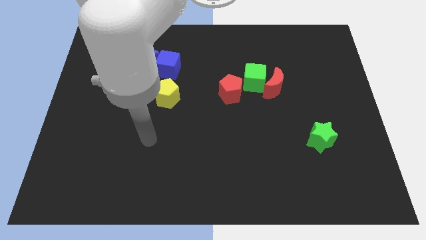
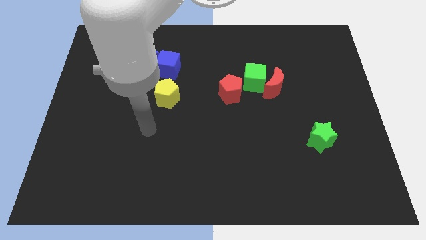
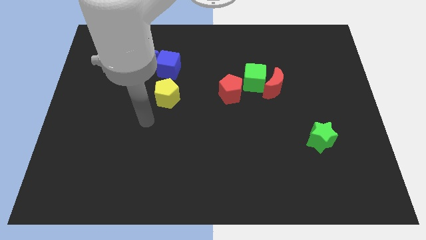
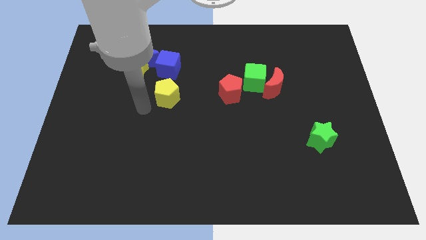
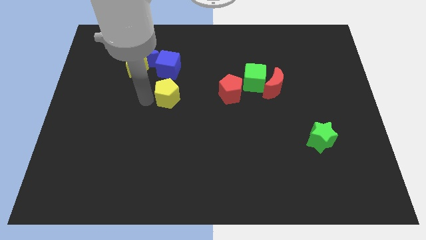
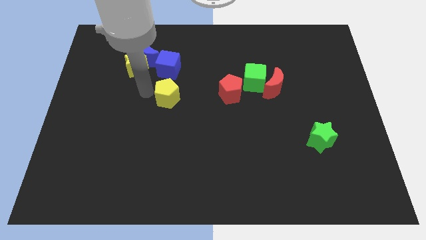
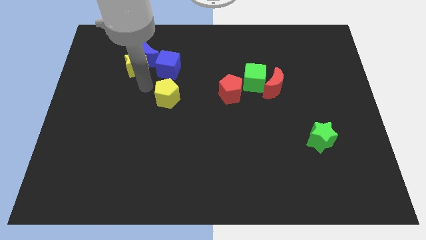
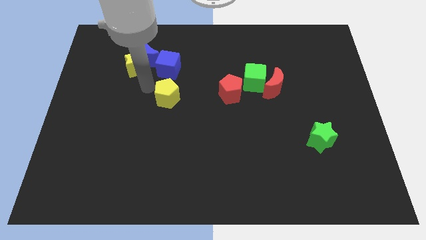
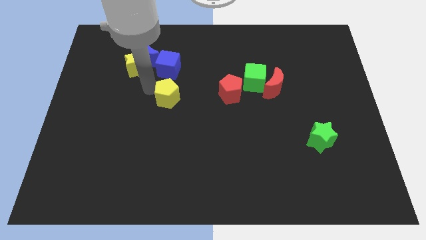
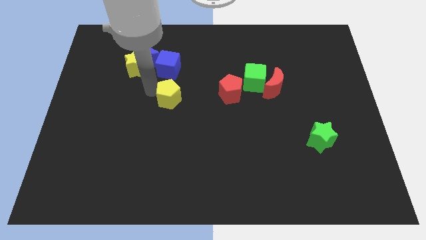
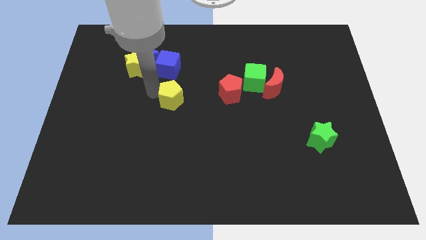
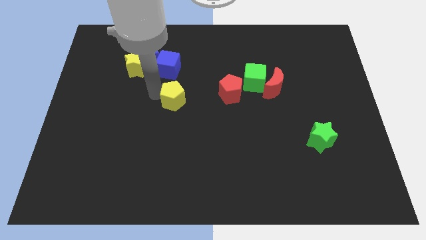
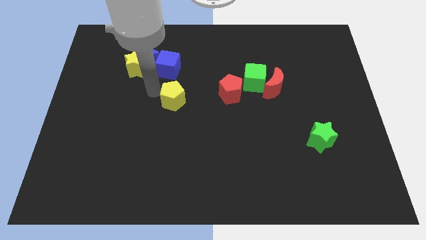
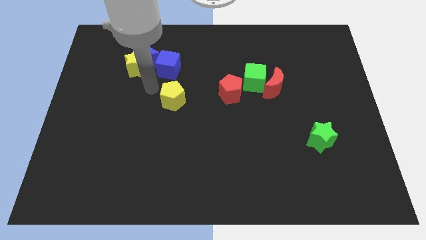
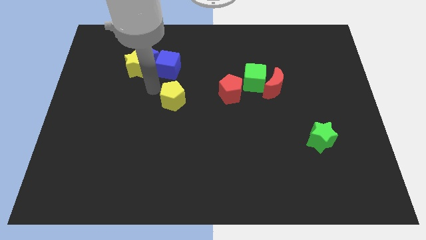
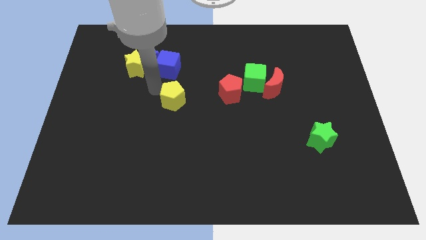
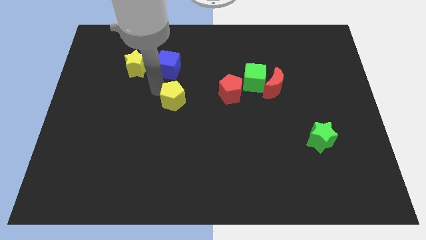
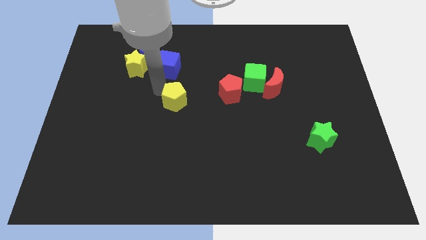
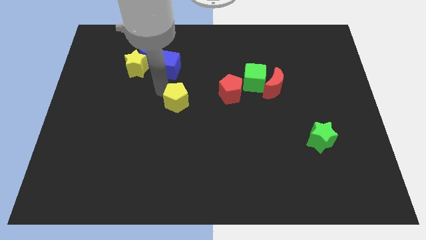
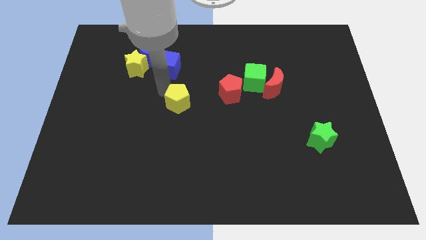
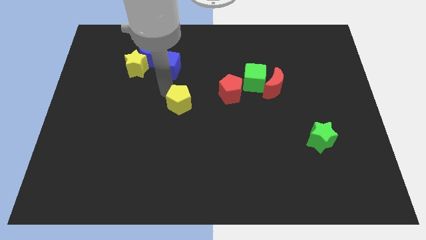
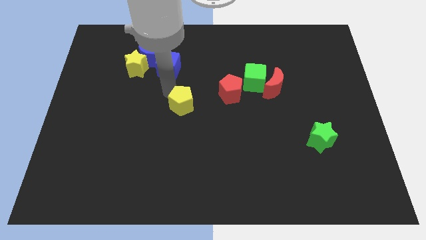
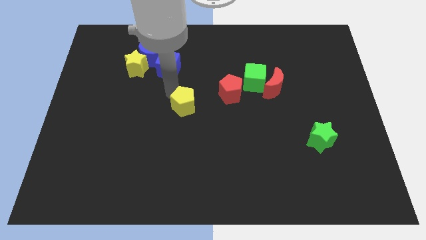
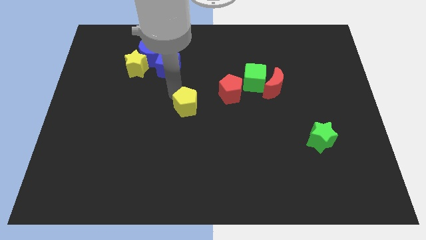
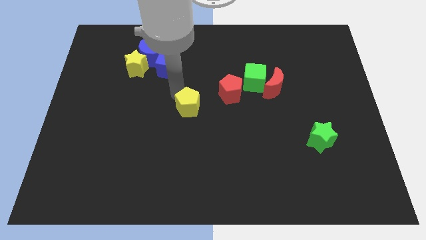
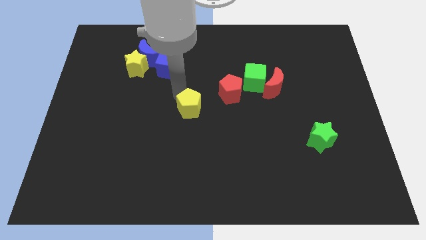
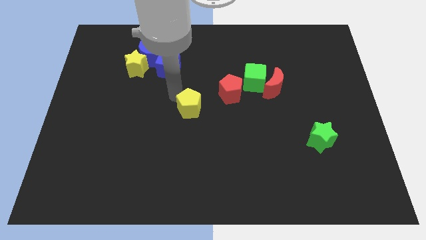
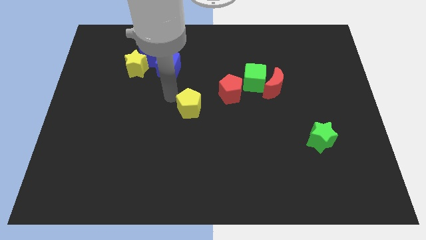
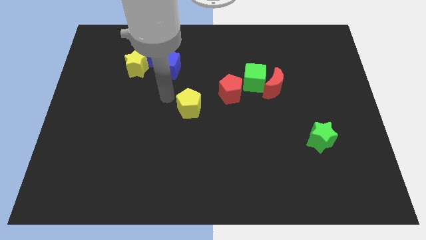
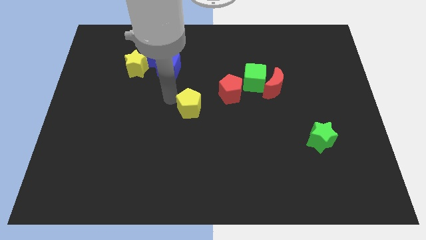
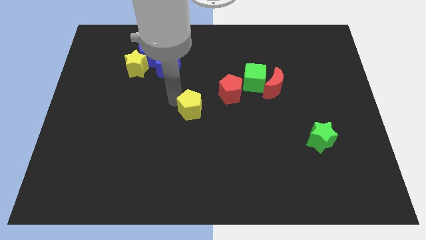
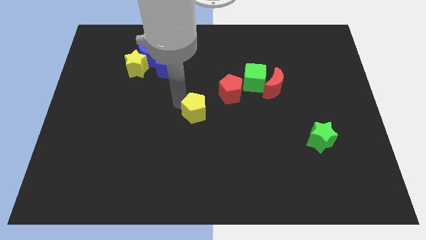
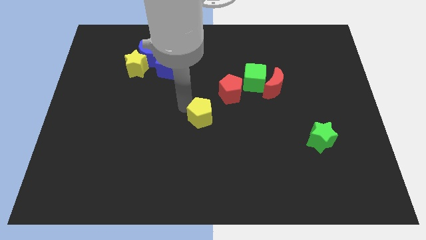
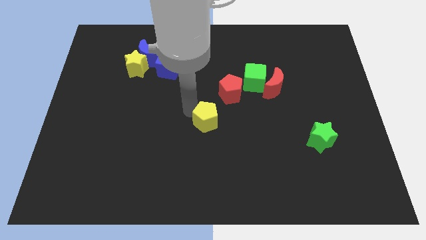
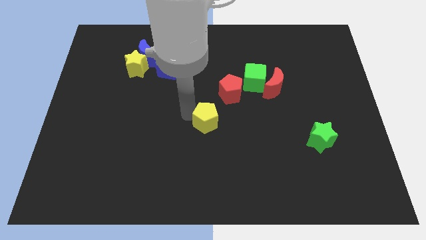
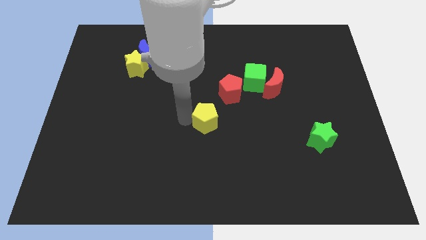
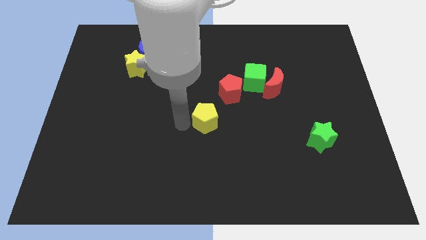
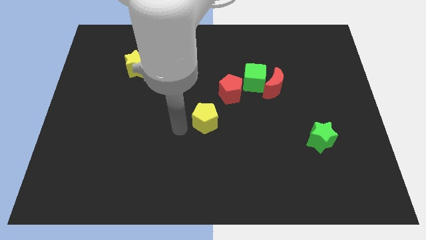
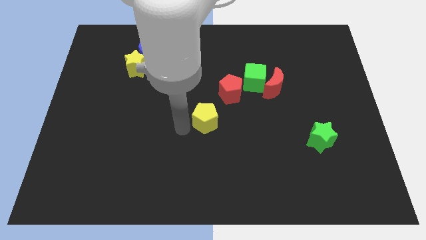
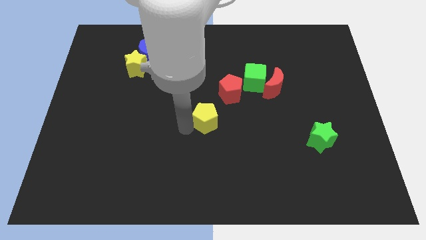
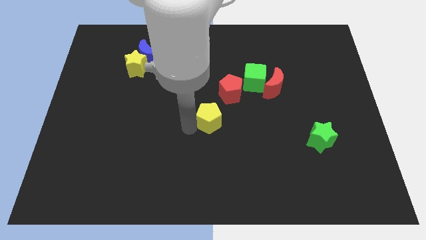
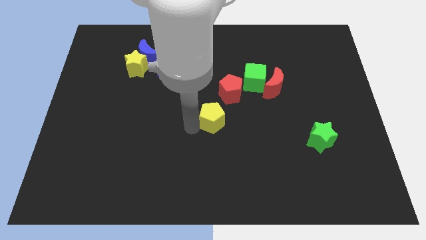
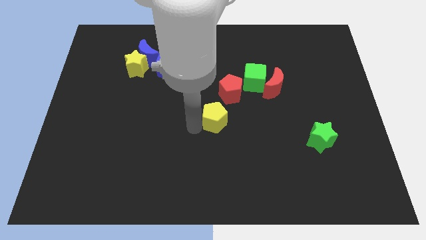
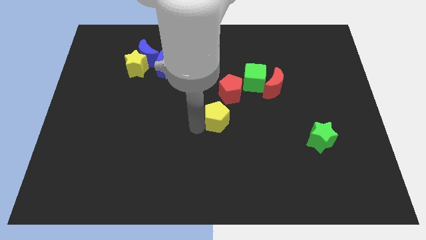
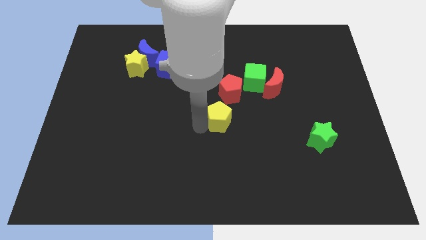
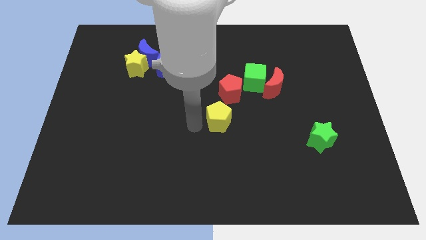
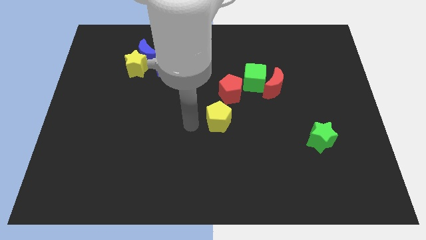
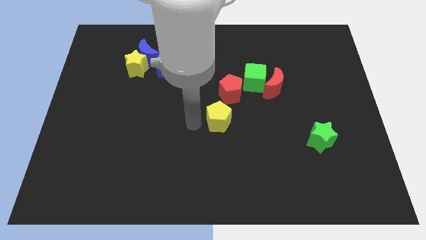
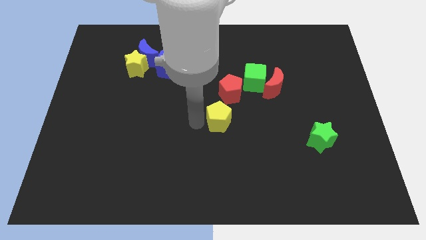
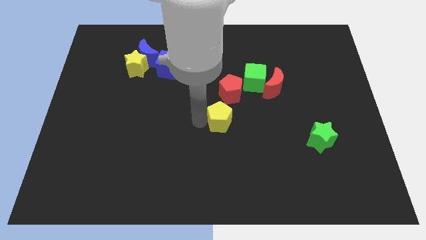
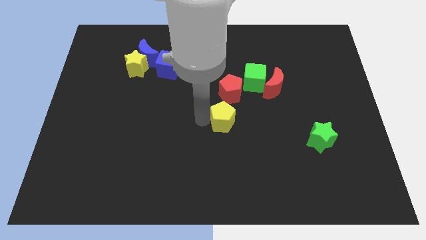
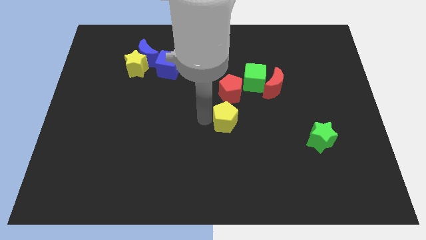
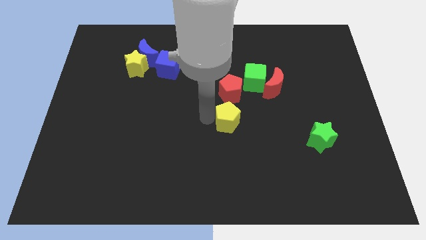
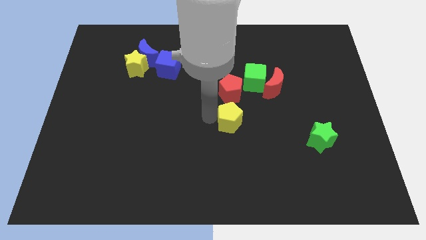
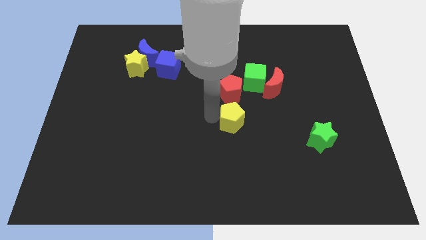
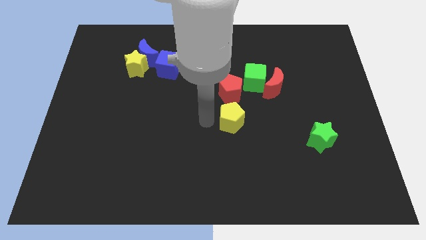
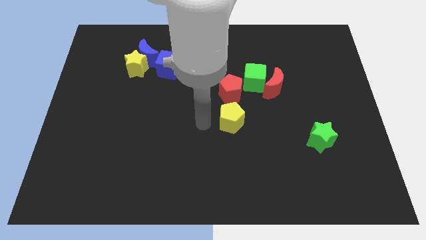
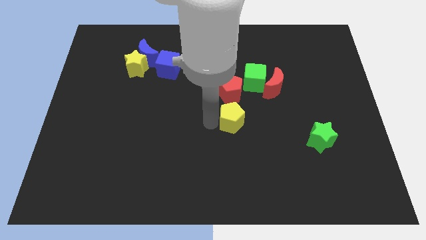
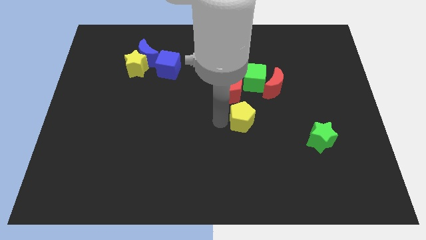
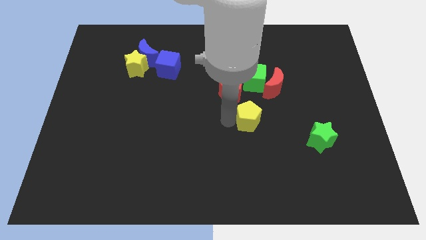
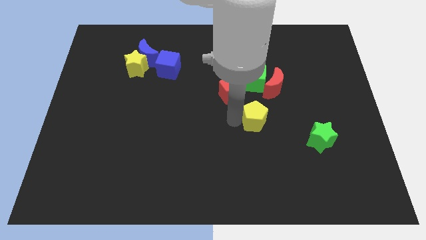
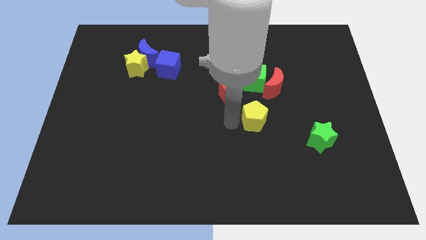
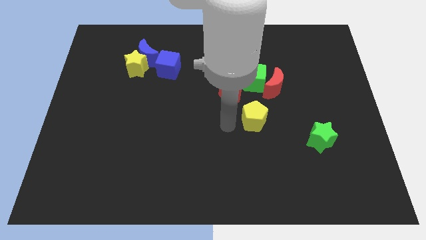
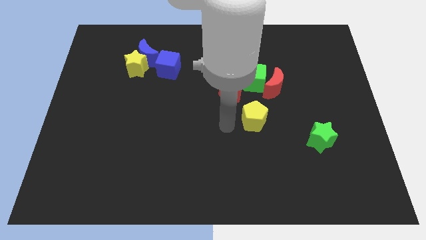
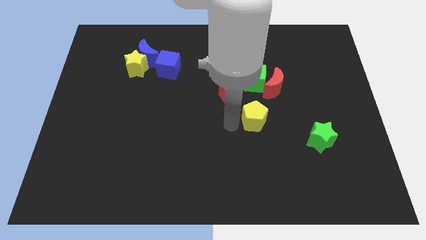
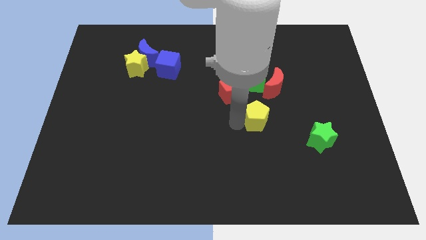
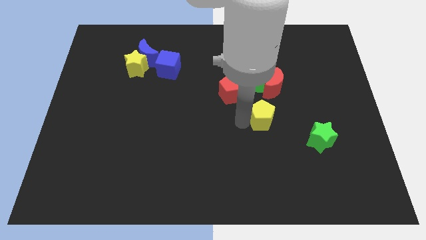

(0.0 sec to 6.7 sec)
slide the yellow pentagon to the right

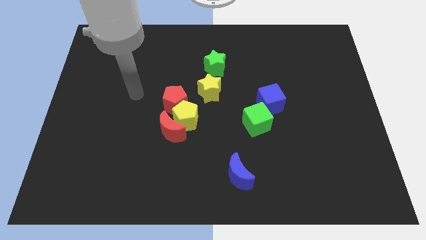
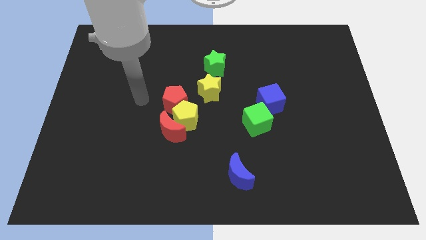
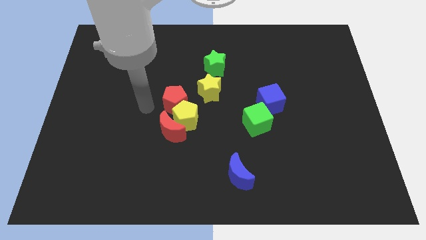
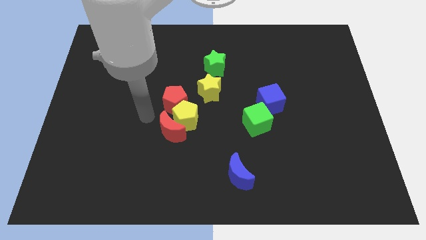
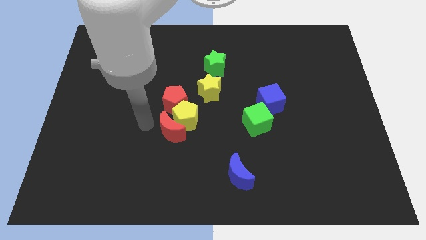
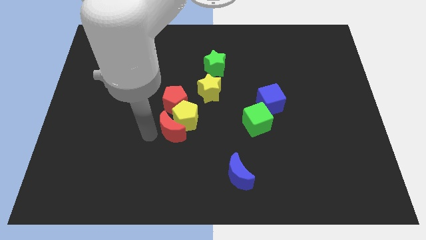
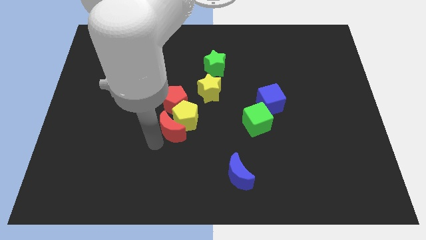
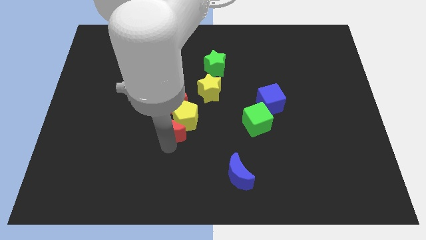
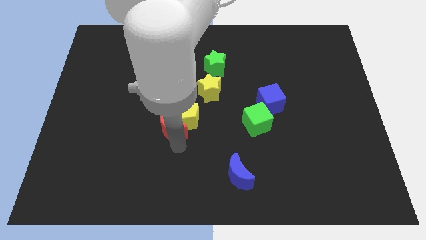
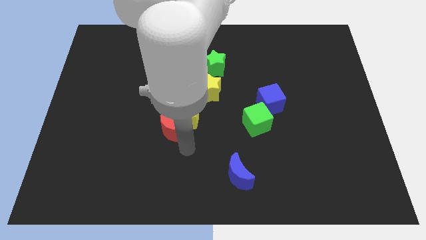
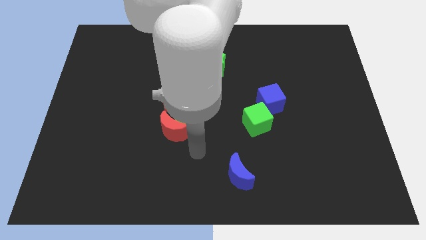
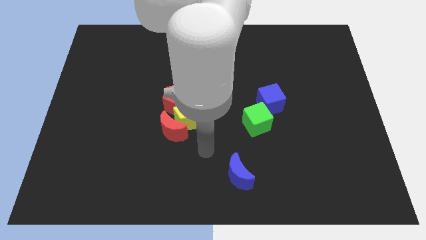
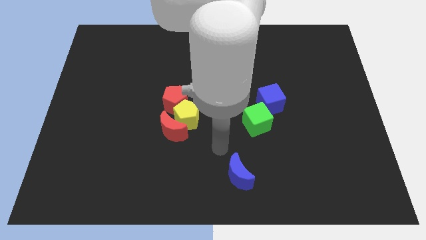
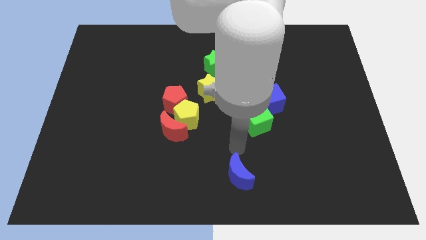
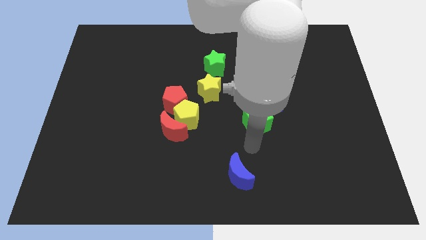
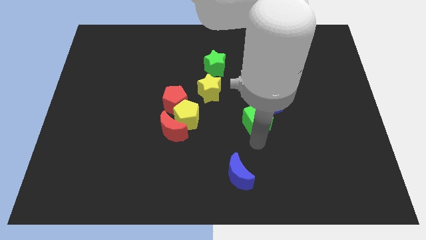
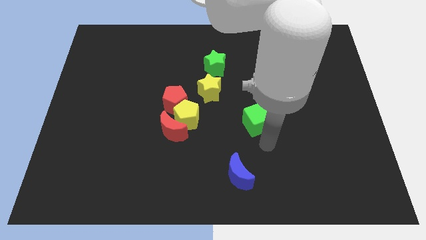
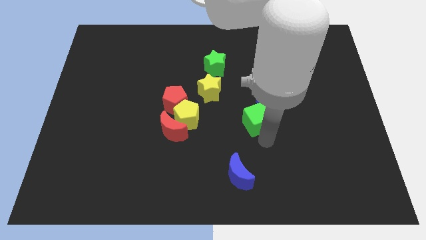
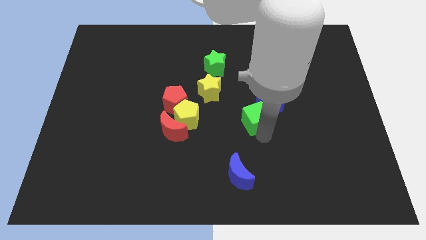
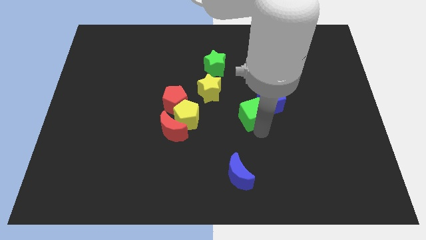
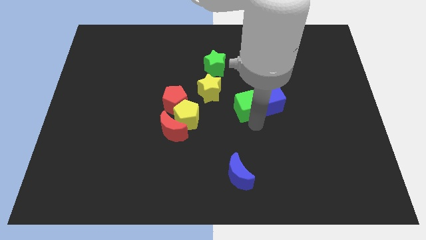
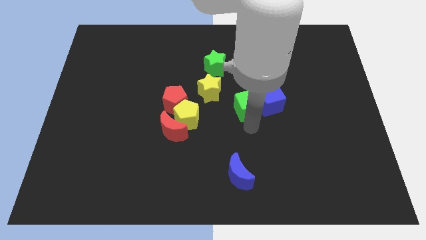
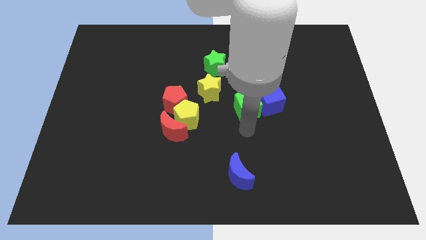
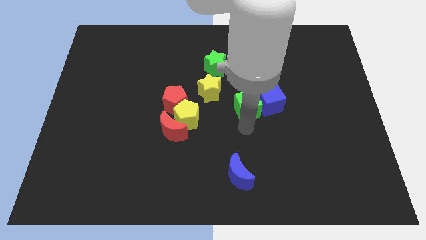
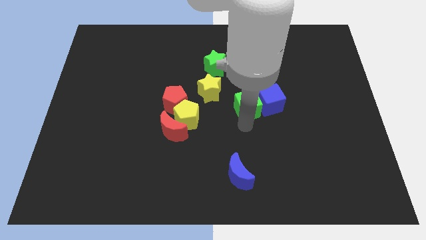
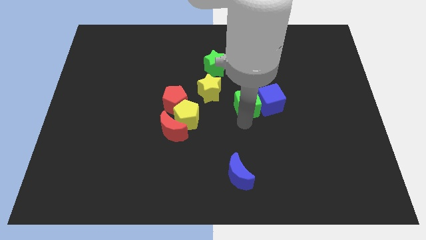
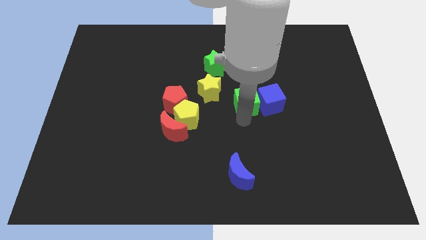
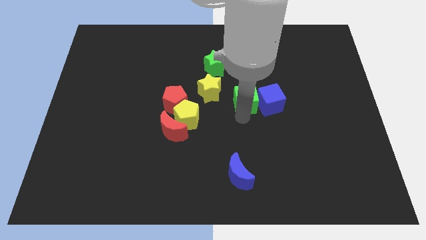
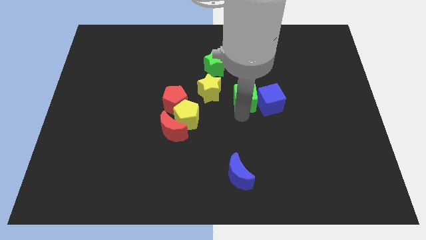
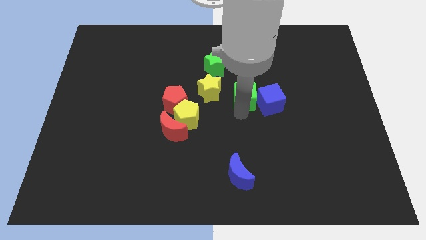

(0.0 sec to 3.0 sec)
move the green cube up slightly
